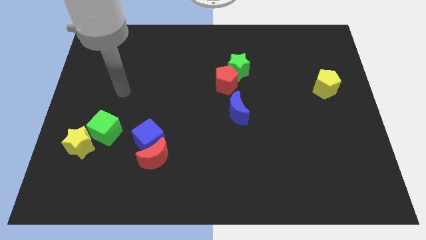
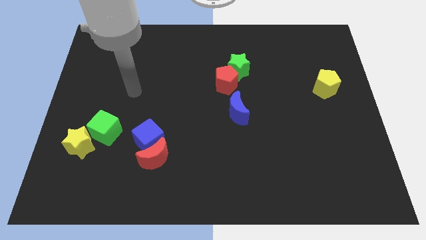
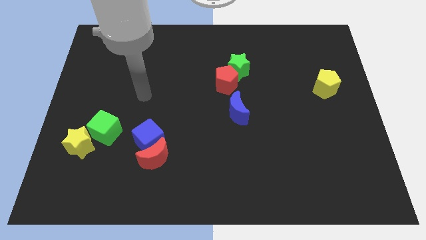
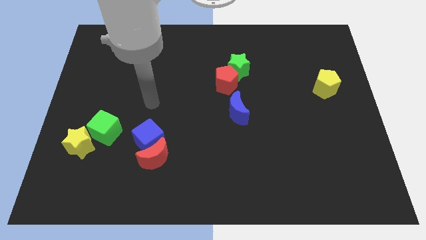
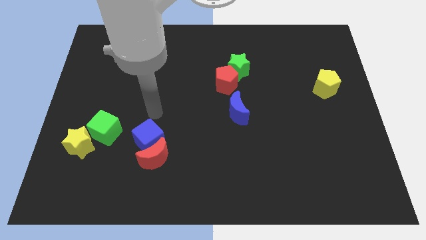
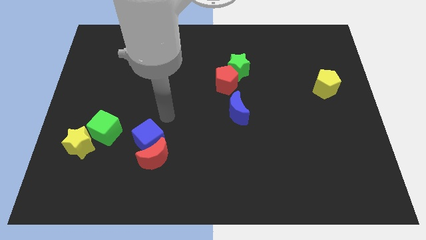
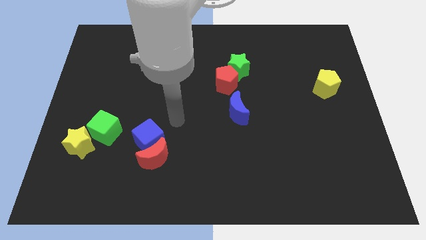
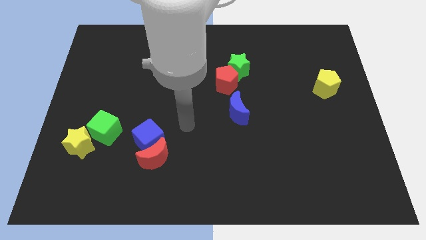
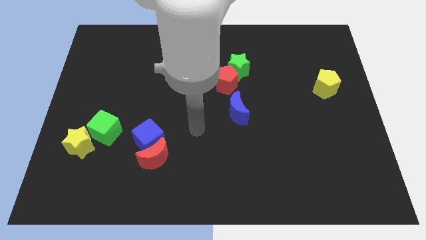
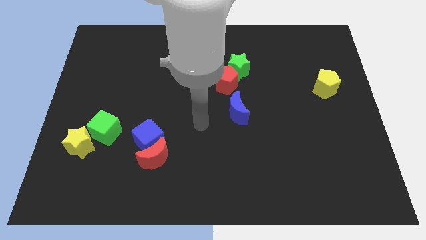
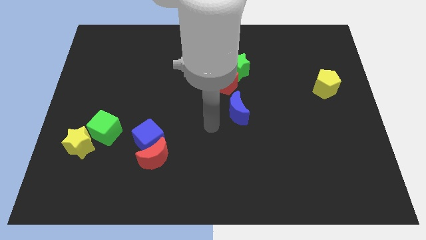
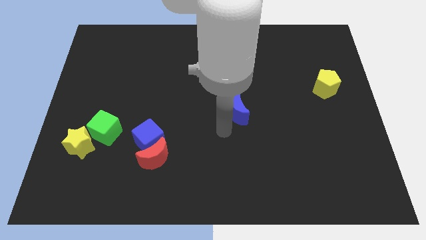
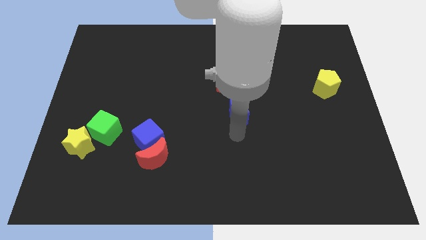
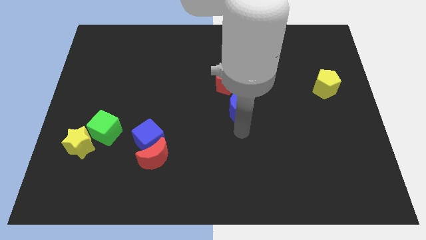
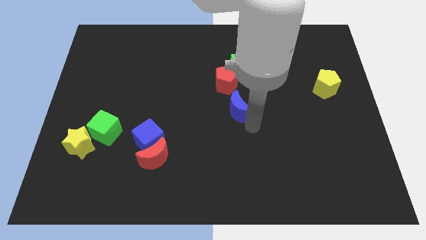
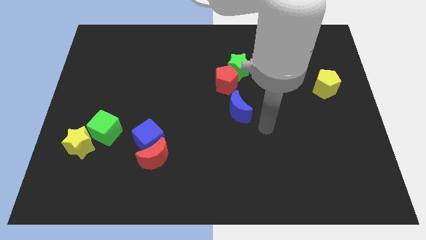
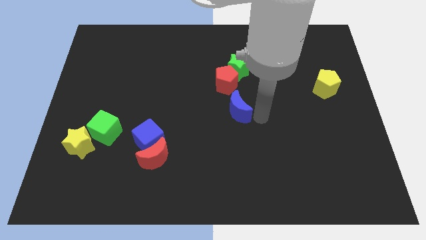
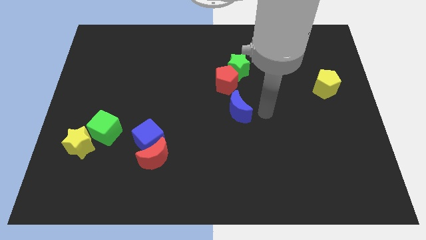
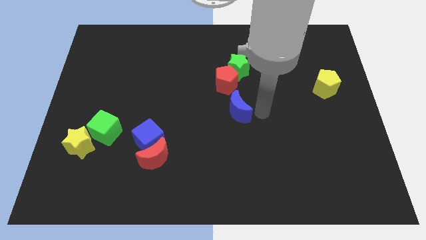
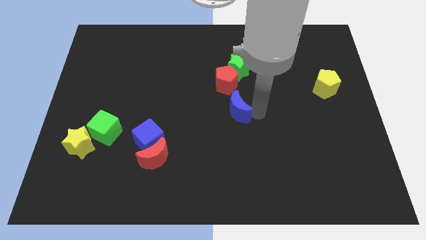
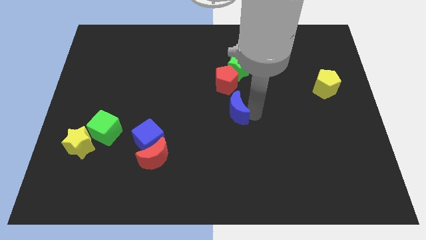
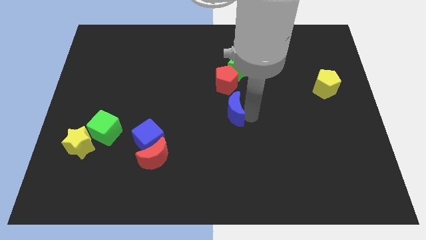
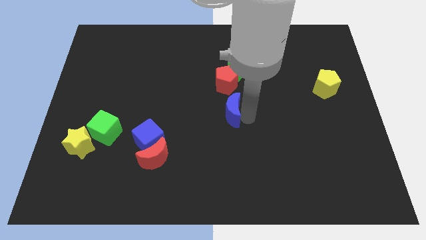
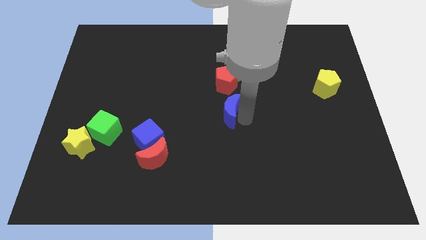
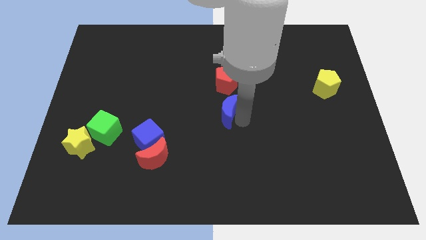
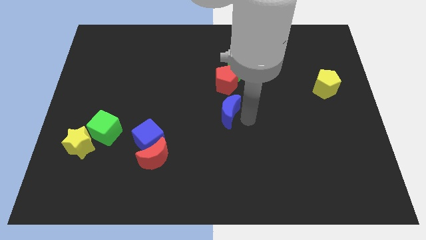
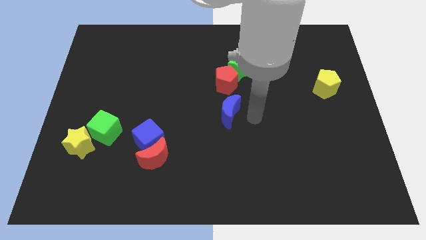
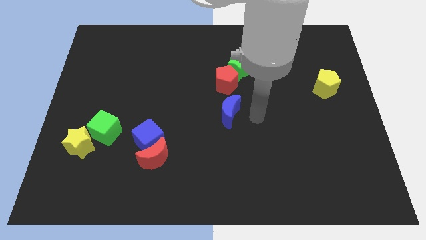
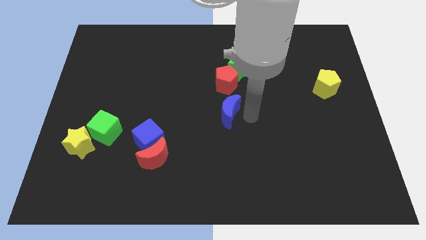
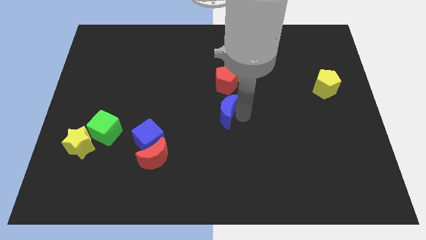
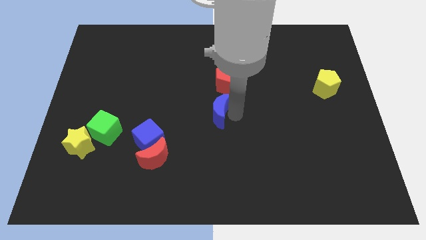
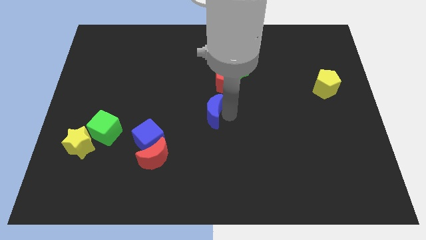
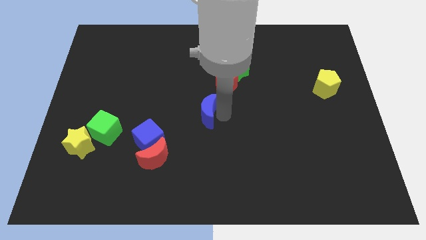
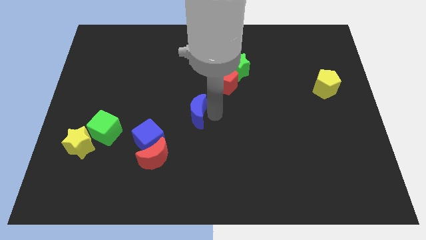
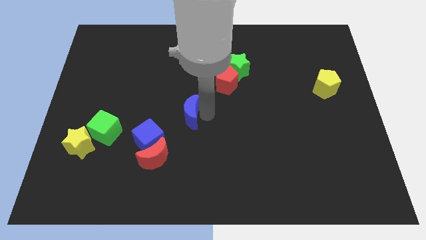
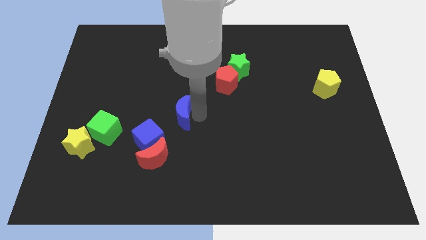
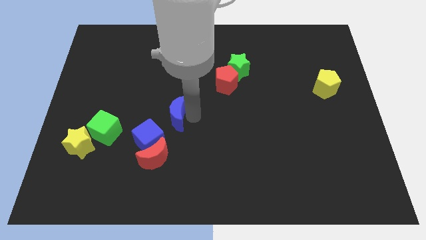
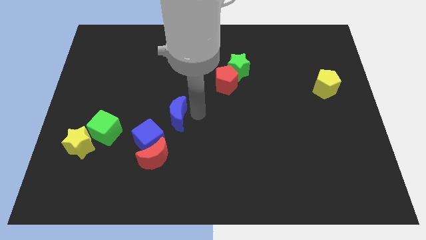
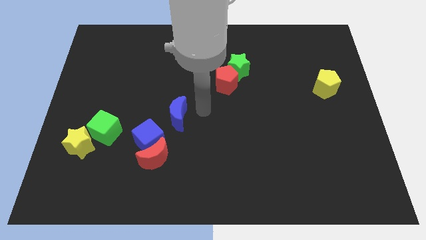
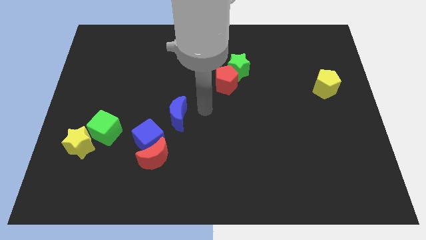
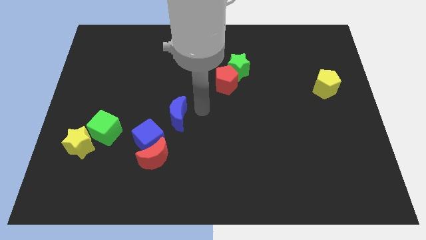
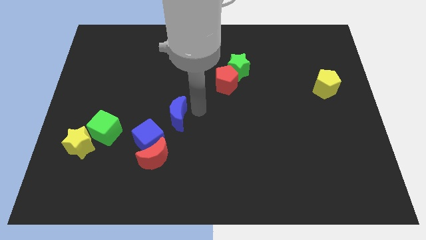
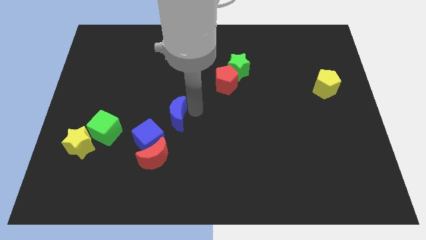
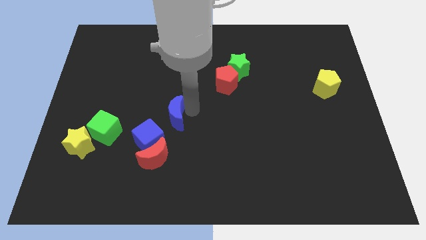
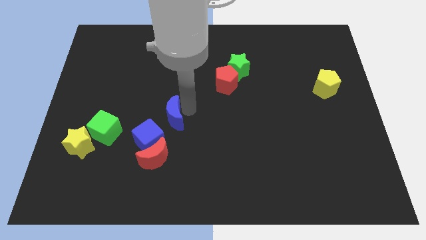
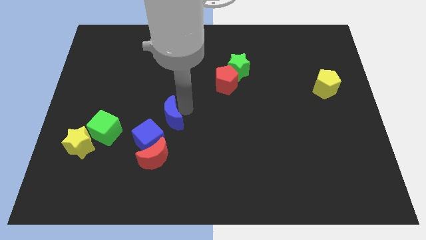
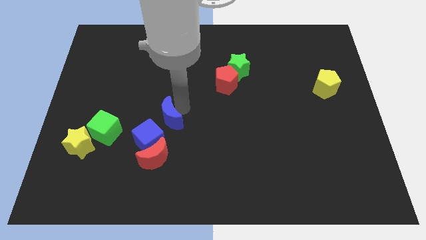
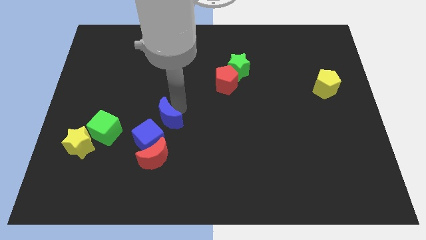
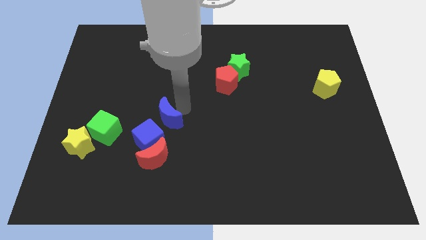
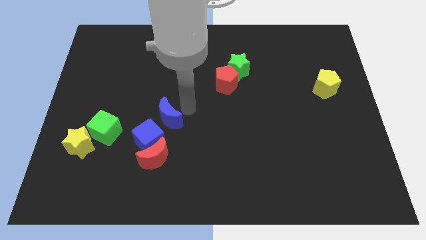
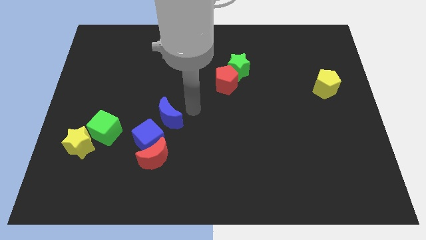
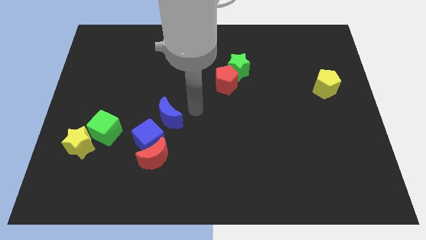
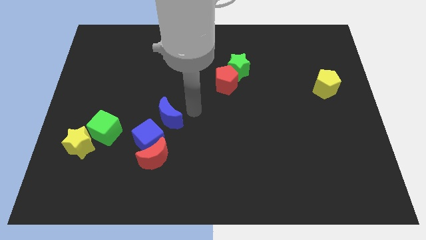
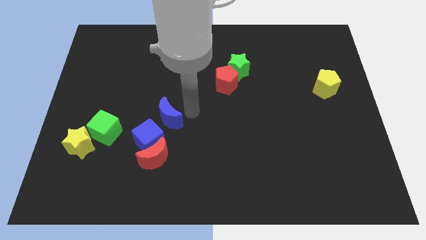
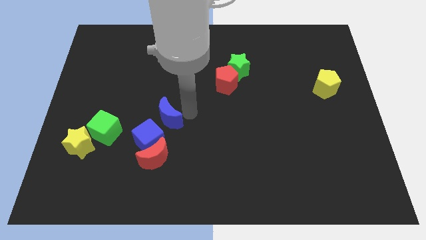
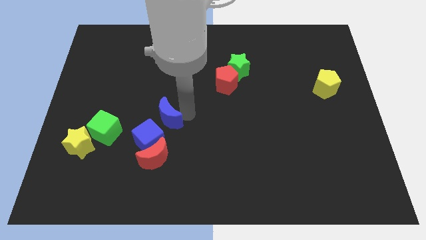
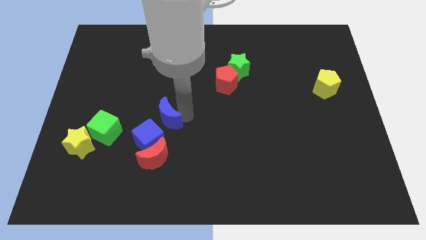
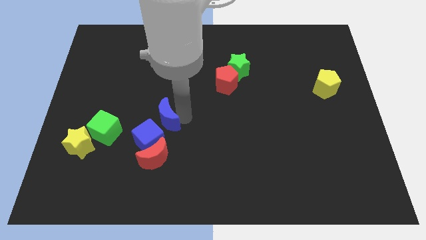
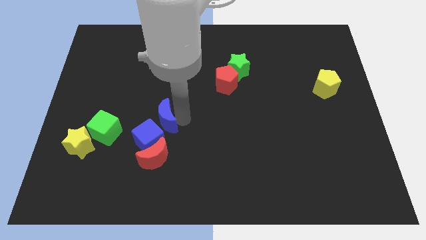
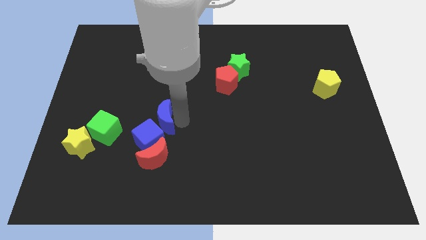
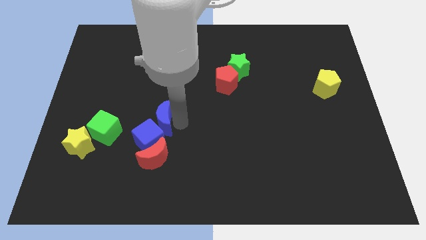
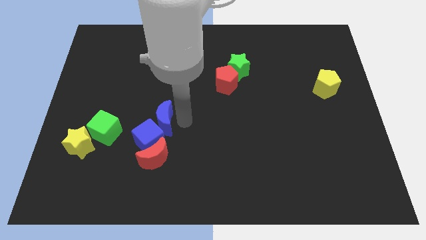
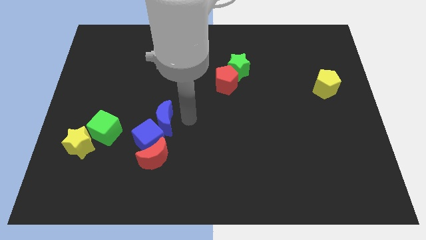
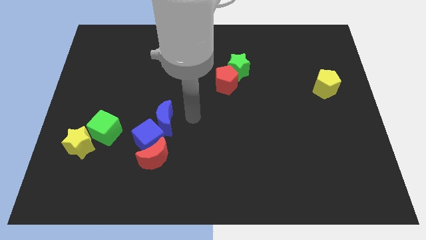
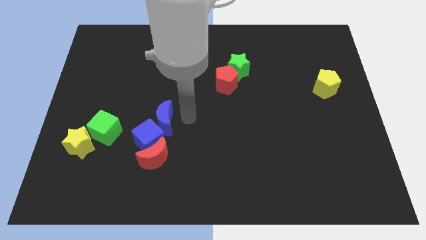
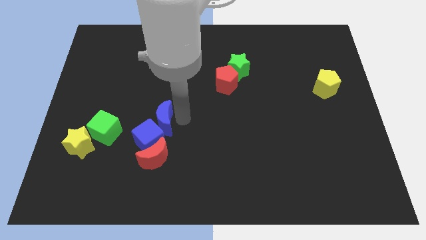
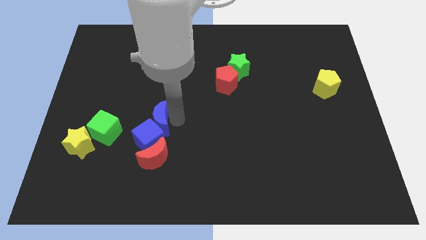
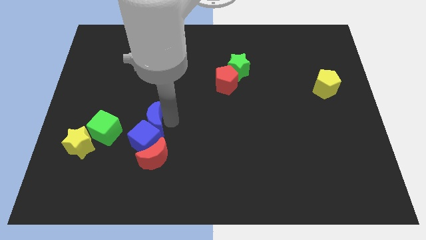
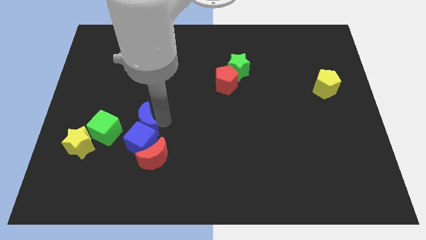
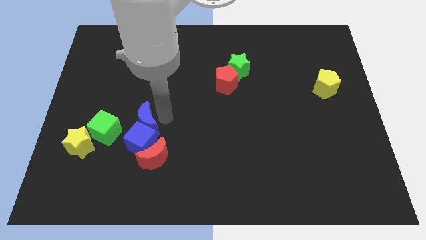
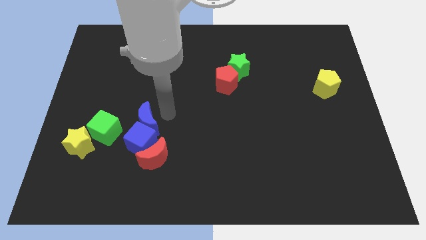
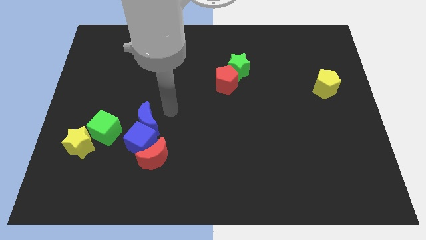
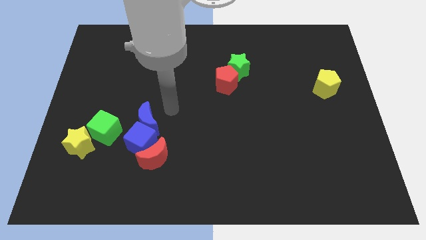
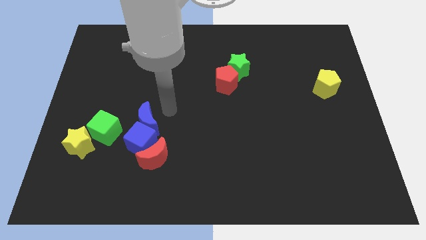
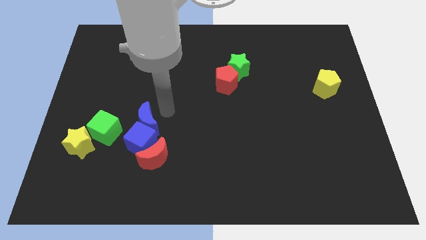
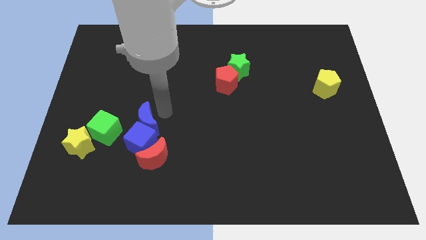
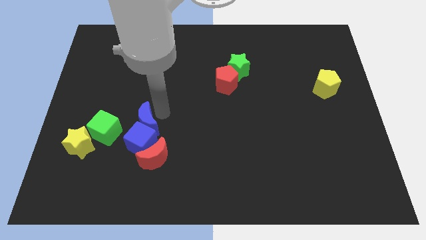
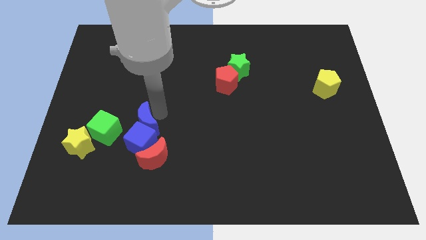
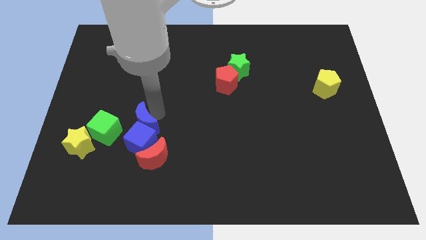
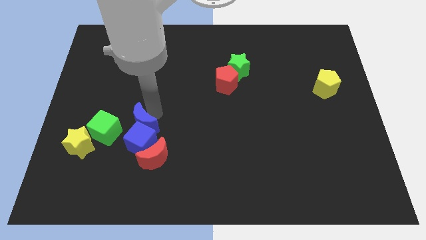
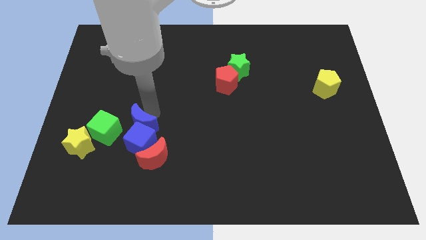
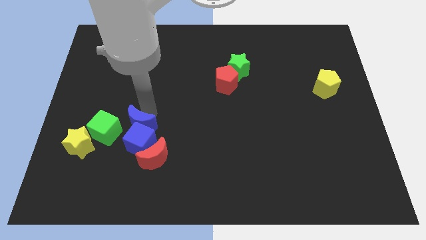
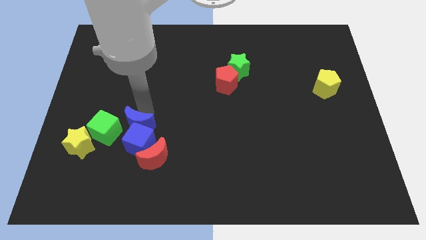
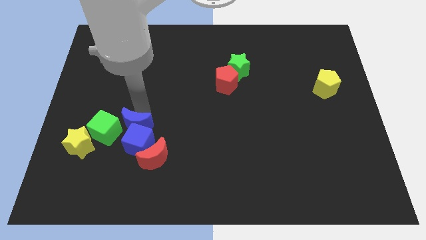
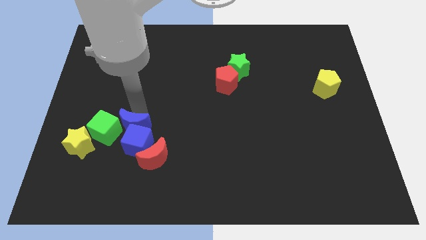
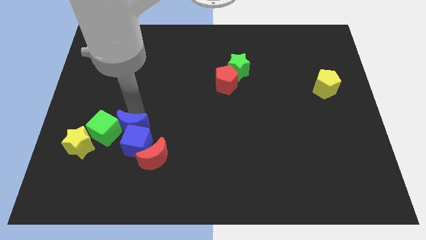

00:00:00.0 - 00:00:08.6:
move the blue moon to the bottom right side of the green cube
